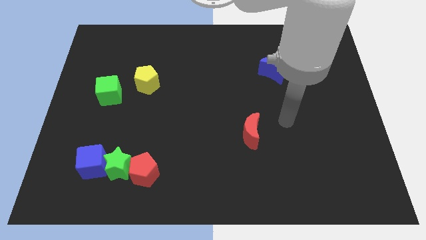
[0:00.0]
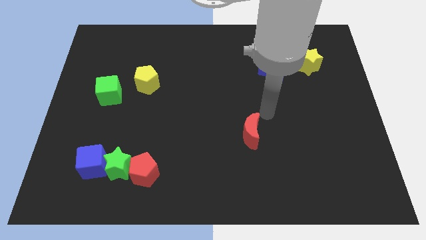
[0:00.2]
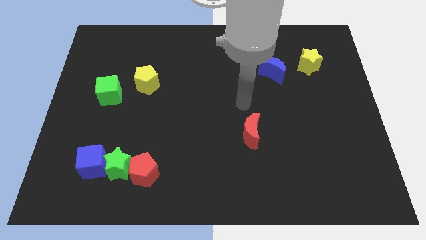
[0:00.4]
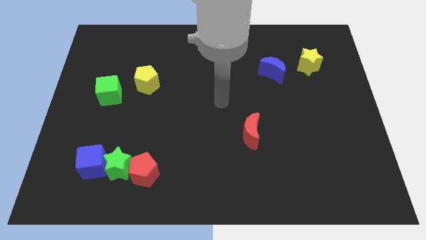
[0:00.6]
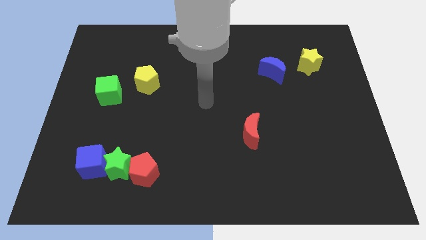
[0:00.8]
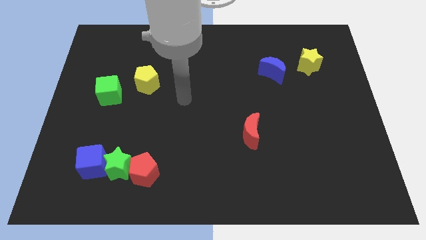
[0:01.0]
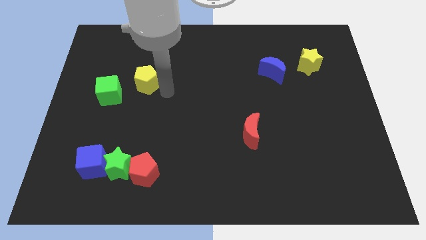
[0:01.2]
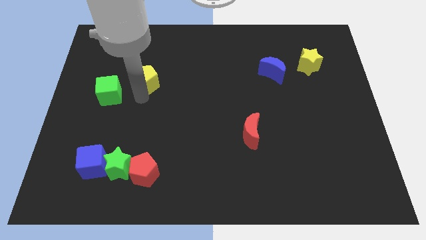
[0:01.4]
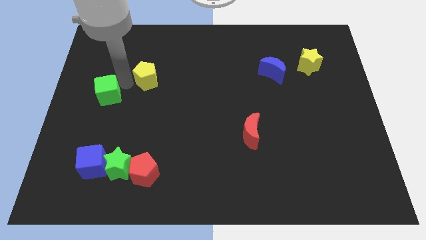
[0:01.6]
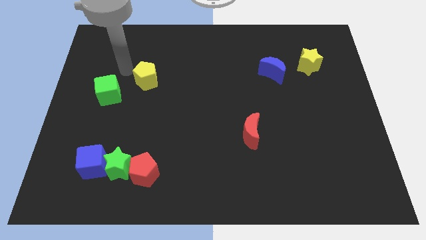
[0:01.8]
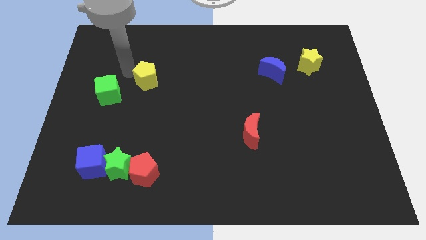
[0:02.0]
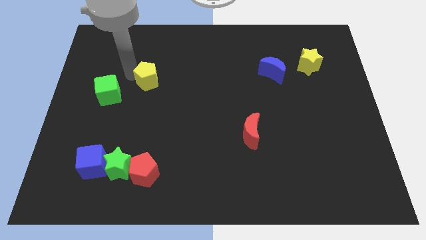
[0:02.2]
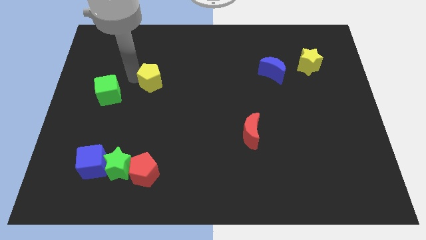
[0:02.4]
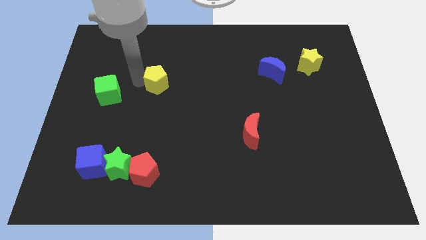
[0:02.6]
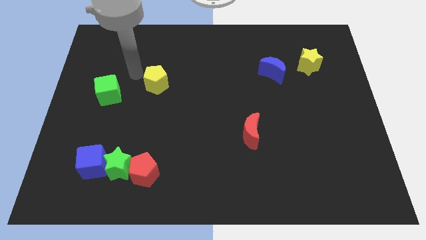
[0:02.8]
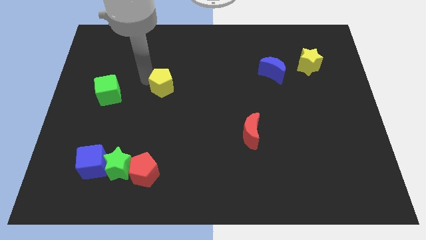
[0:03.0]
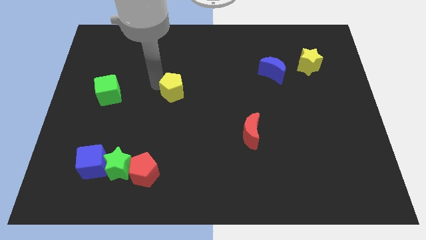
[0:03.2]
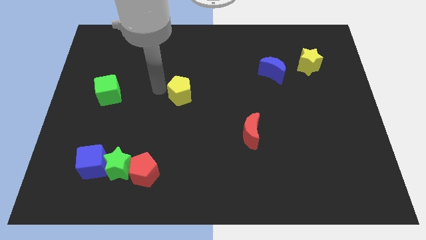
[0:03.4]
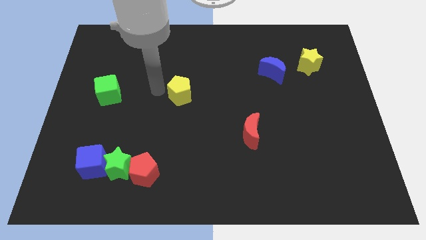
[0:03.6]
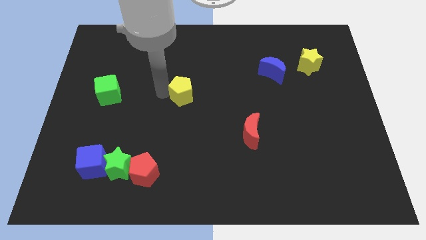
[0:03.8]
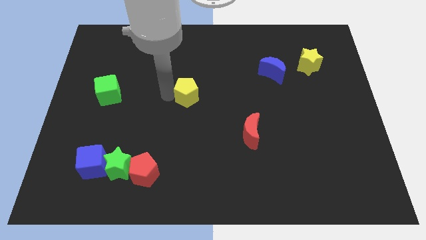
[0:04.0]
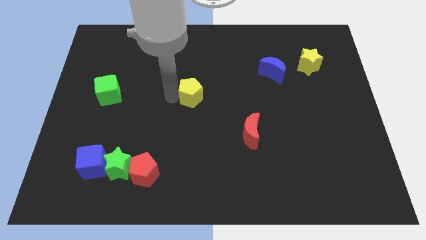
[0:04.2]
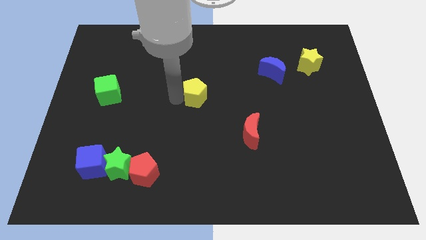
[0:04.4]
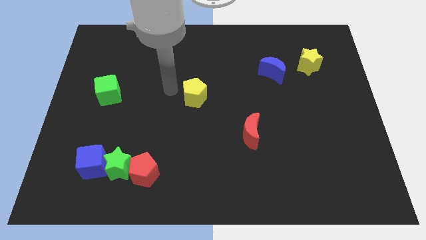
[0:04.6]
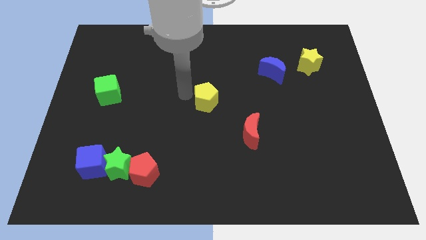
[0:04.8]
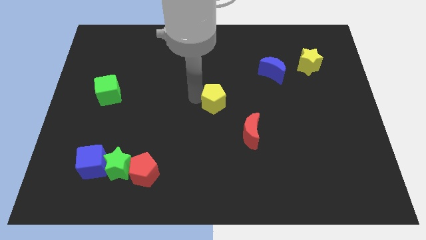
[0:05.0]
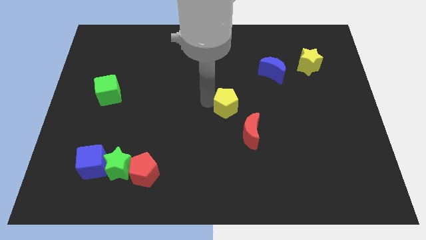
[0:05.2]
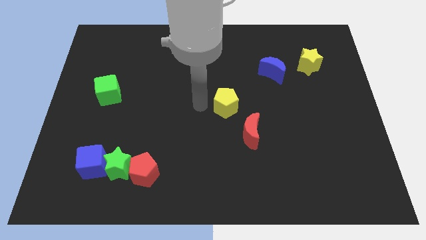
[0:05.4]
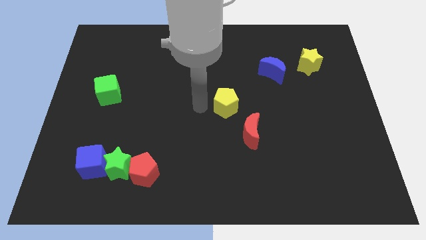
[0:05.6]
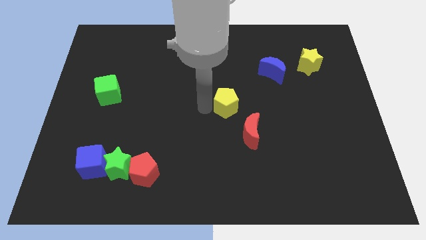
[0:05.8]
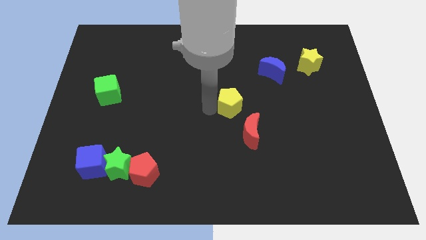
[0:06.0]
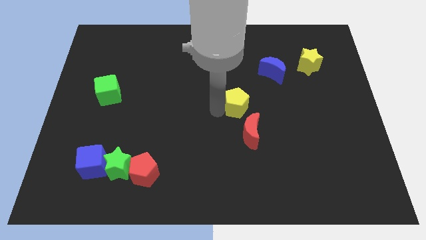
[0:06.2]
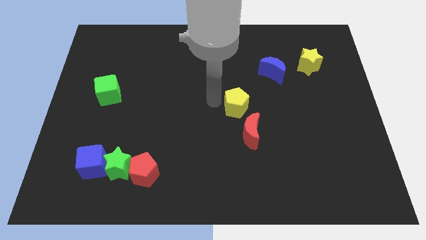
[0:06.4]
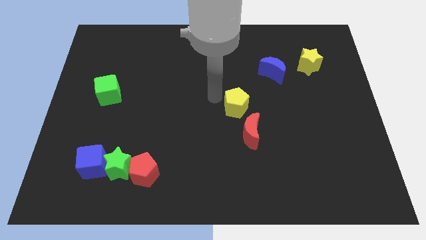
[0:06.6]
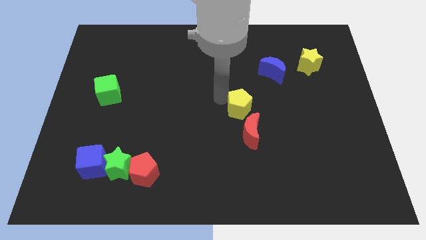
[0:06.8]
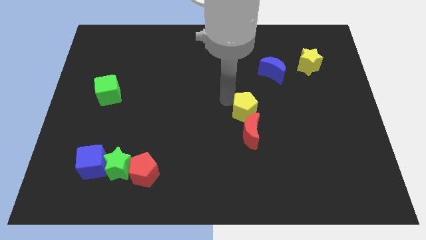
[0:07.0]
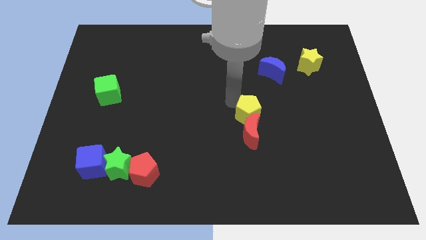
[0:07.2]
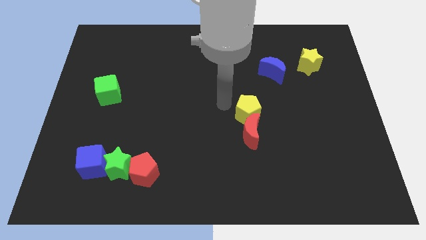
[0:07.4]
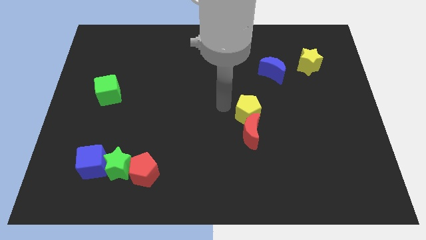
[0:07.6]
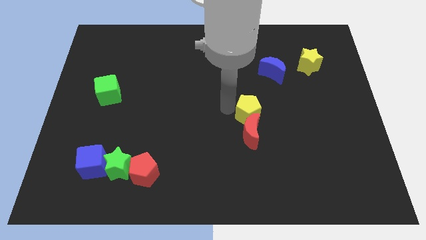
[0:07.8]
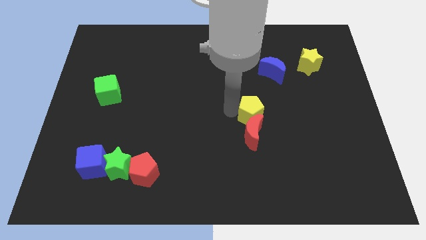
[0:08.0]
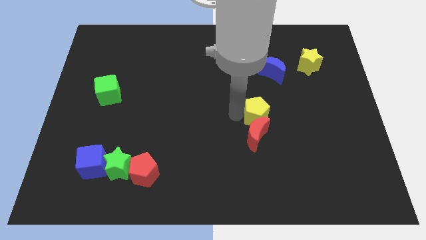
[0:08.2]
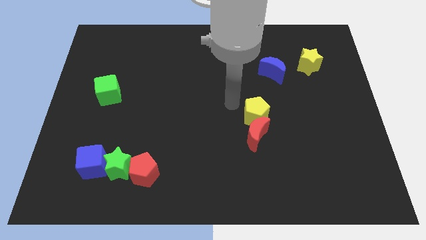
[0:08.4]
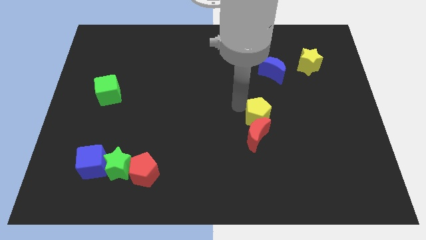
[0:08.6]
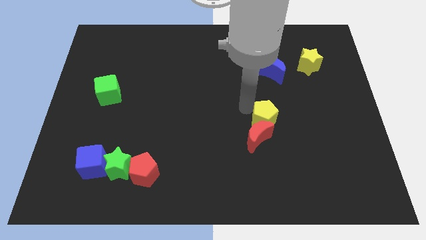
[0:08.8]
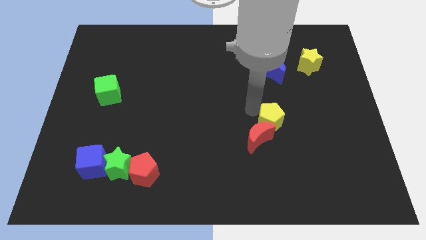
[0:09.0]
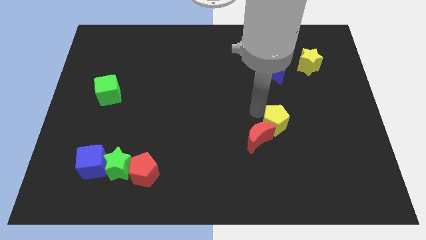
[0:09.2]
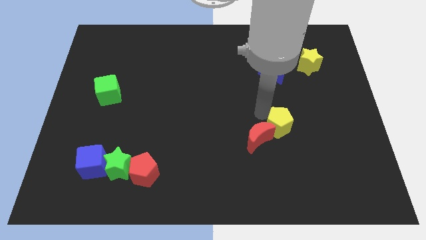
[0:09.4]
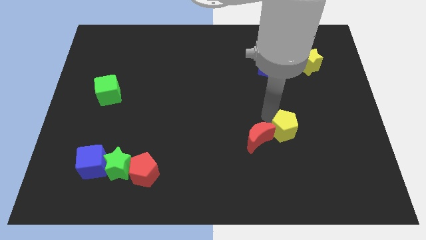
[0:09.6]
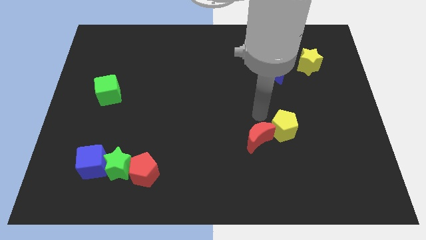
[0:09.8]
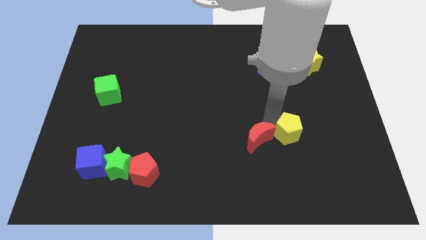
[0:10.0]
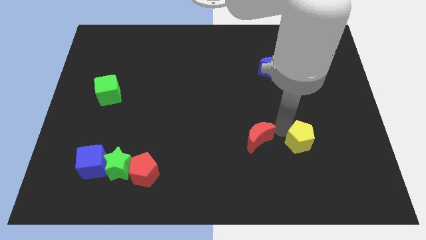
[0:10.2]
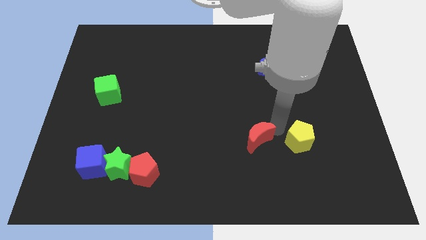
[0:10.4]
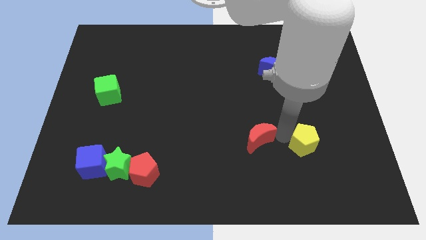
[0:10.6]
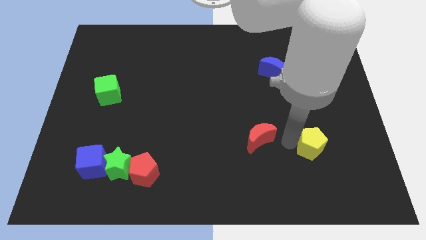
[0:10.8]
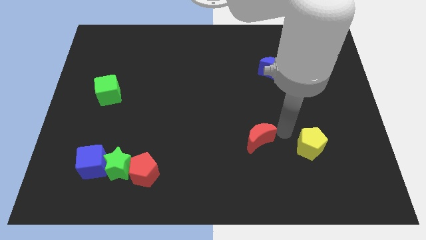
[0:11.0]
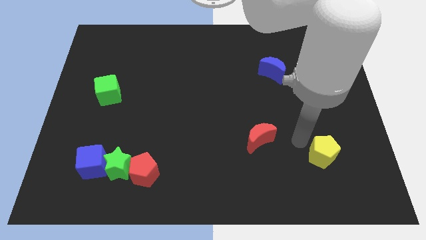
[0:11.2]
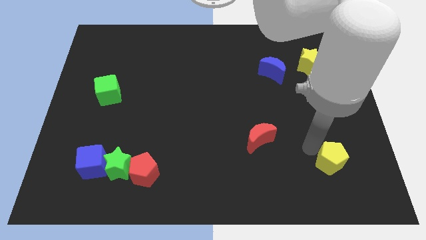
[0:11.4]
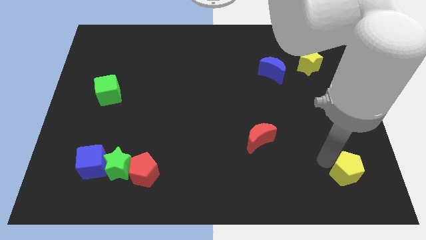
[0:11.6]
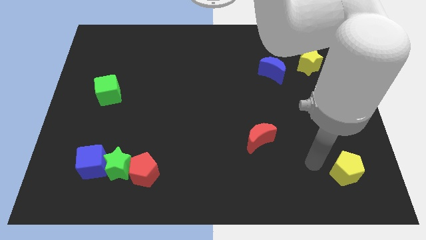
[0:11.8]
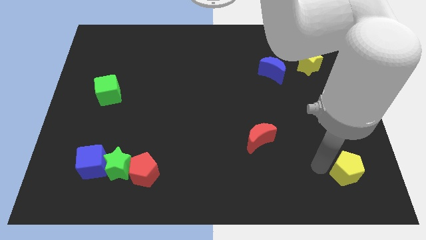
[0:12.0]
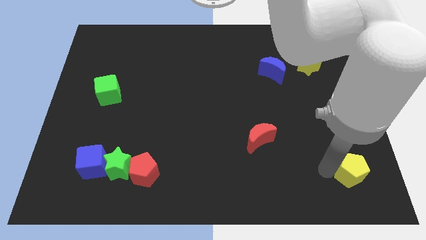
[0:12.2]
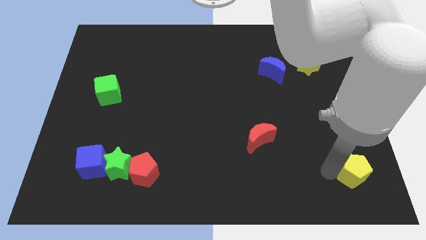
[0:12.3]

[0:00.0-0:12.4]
slide the yellow pentagon to the bottom right corner

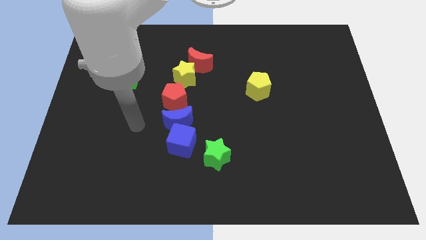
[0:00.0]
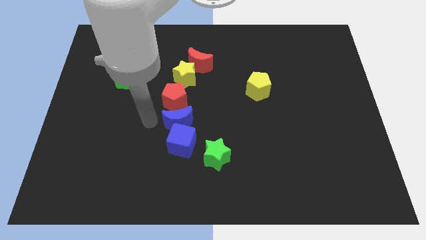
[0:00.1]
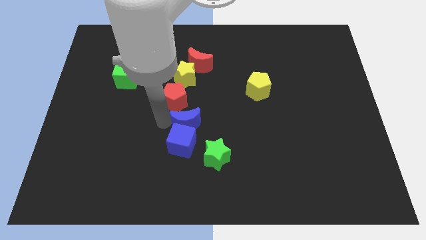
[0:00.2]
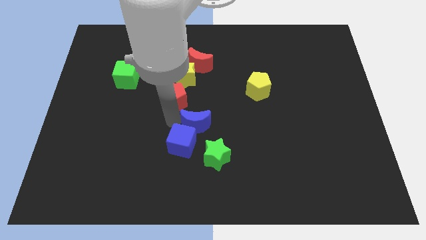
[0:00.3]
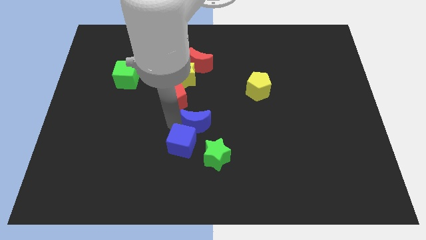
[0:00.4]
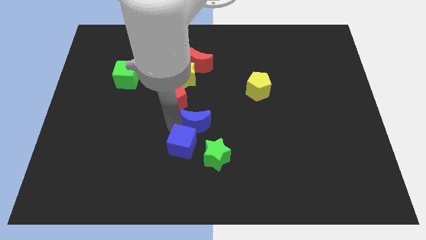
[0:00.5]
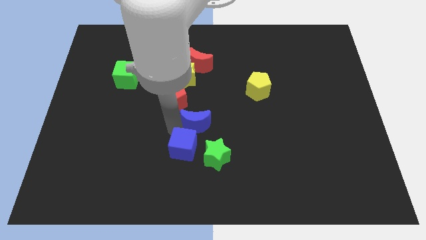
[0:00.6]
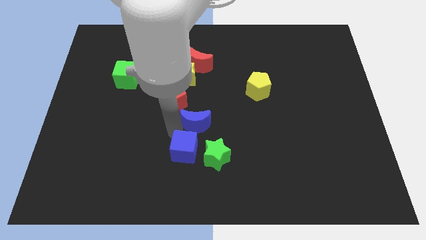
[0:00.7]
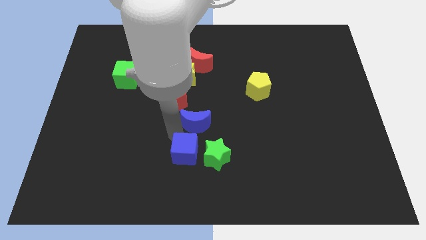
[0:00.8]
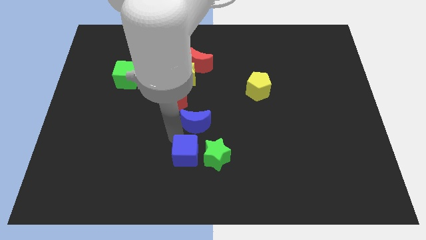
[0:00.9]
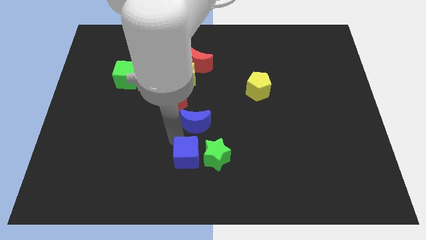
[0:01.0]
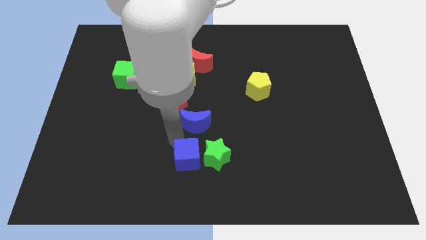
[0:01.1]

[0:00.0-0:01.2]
push the blue cube to the bottom
